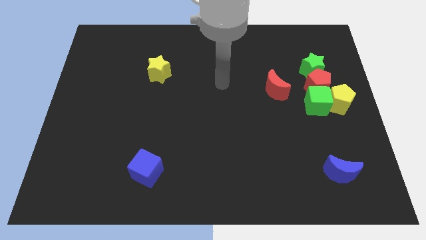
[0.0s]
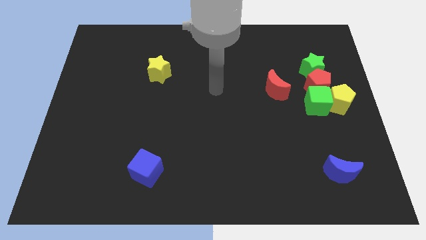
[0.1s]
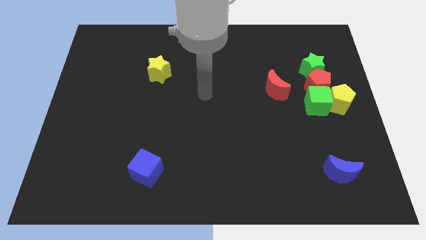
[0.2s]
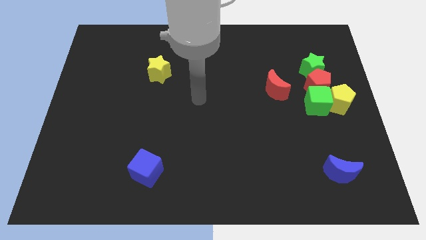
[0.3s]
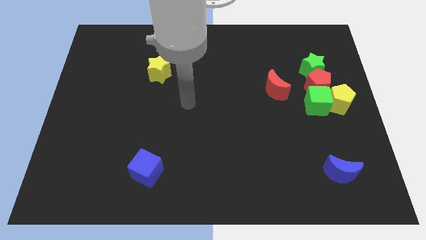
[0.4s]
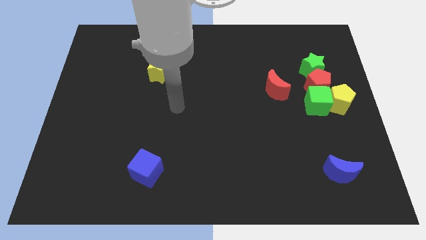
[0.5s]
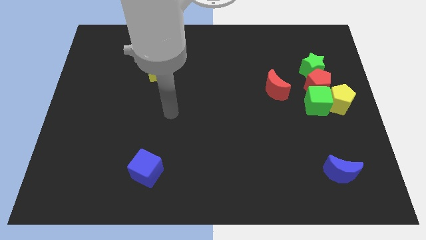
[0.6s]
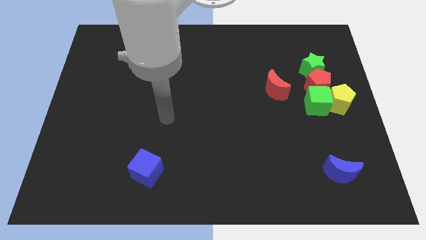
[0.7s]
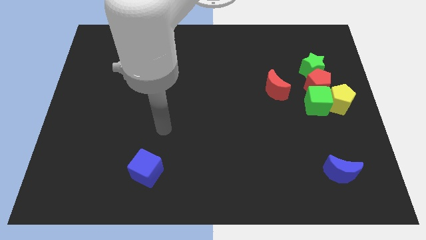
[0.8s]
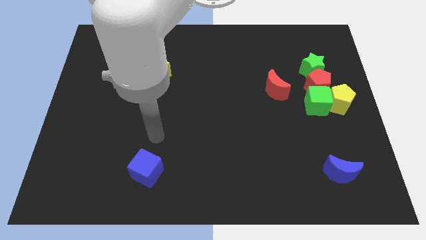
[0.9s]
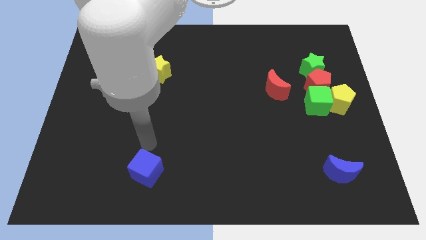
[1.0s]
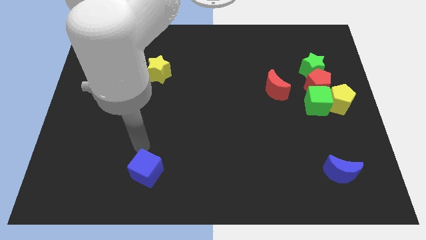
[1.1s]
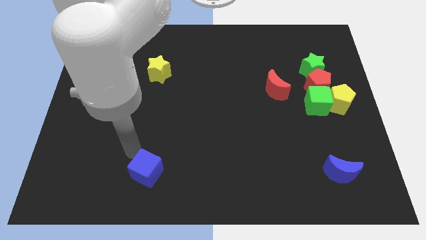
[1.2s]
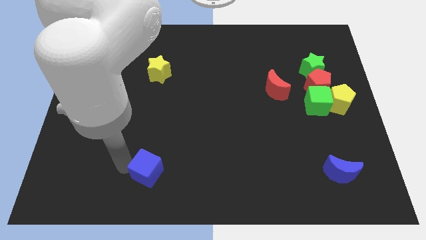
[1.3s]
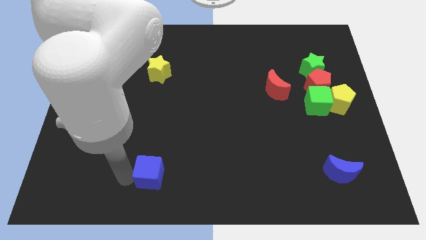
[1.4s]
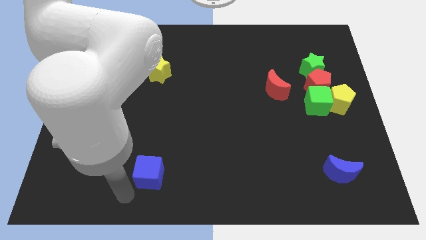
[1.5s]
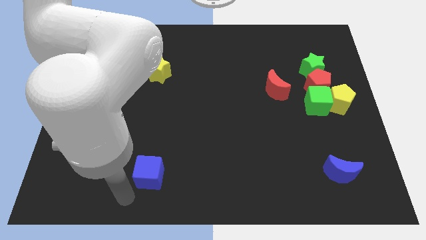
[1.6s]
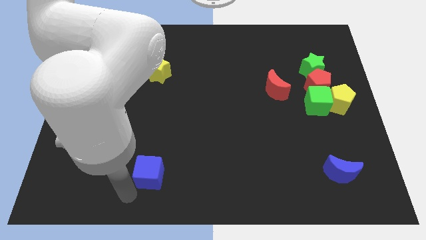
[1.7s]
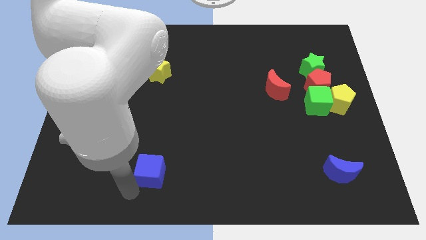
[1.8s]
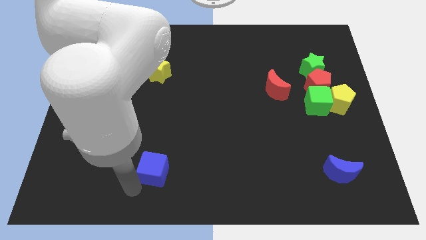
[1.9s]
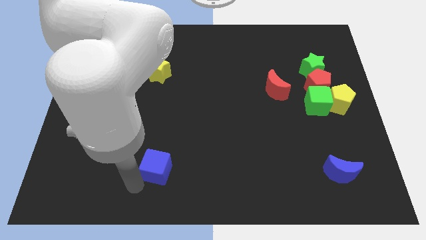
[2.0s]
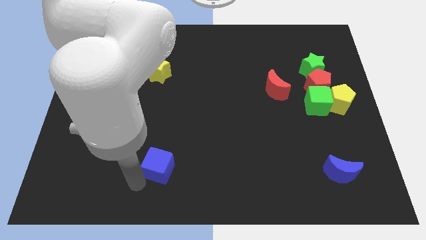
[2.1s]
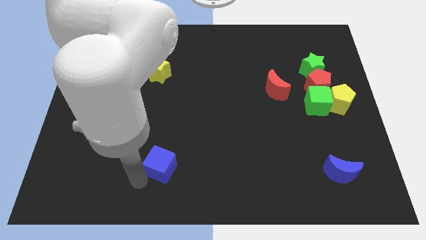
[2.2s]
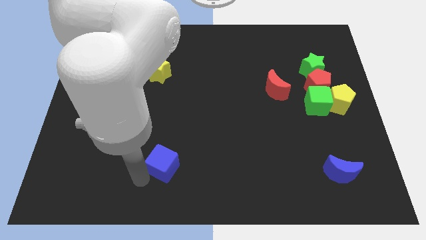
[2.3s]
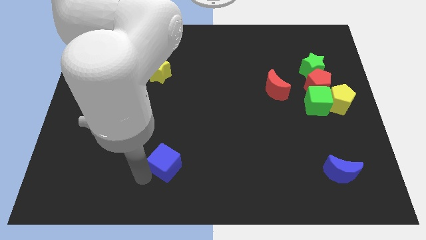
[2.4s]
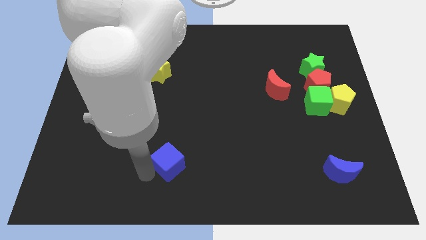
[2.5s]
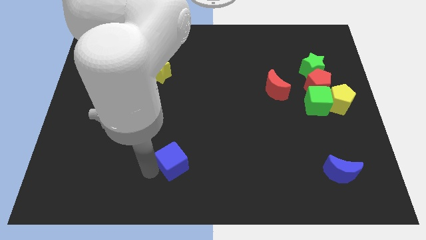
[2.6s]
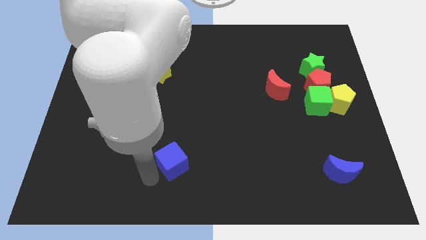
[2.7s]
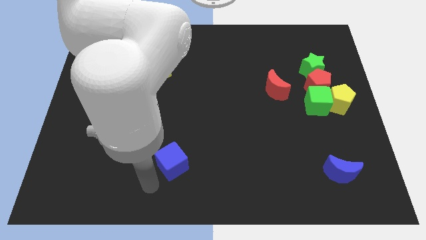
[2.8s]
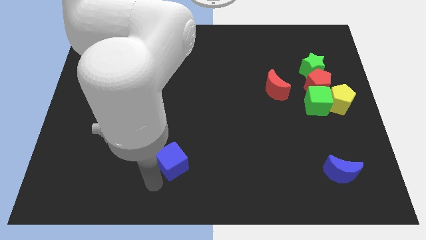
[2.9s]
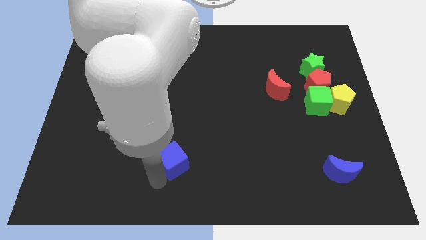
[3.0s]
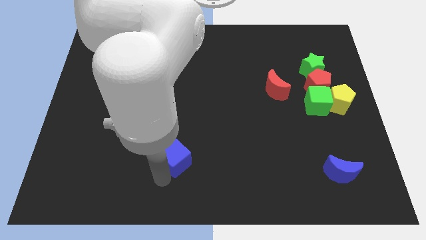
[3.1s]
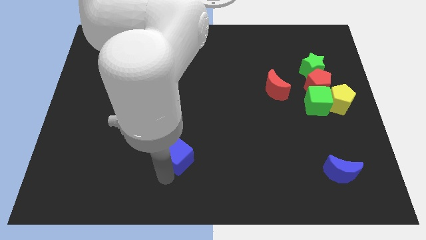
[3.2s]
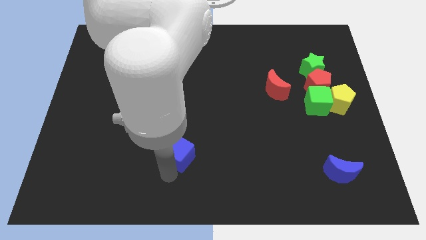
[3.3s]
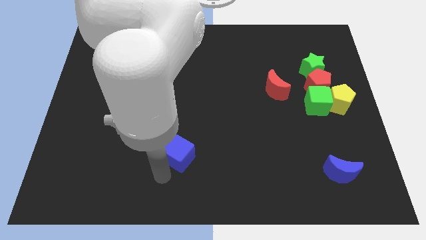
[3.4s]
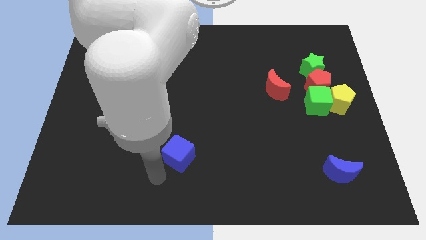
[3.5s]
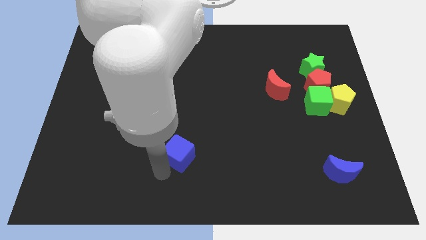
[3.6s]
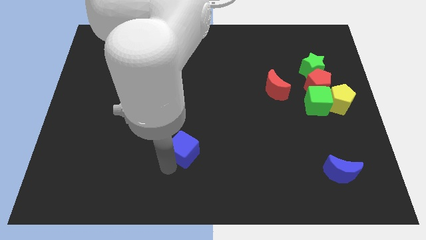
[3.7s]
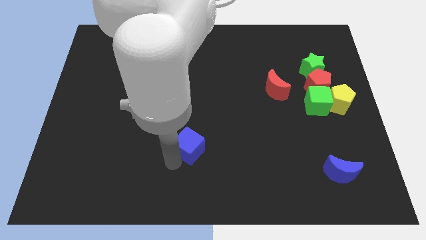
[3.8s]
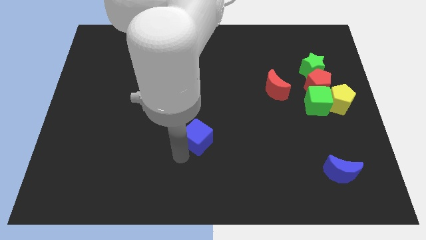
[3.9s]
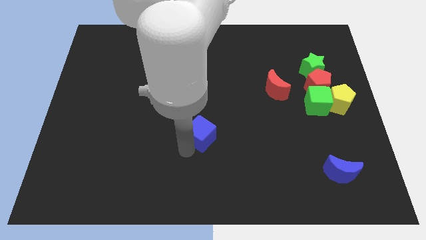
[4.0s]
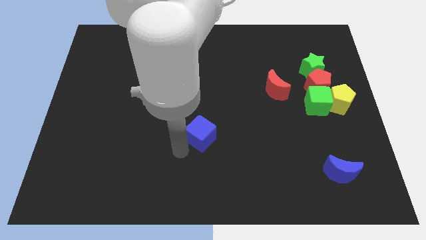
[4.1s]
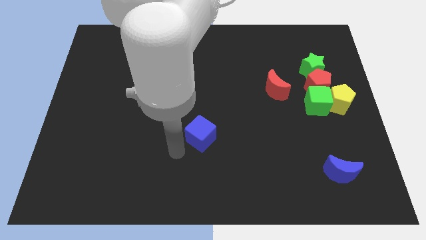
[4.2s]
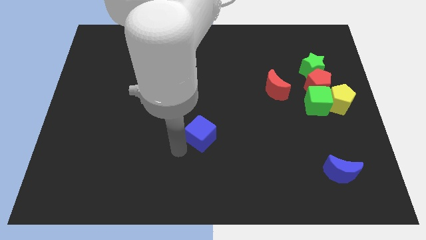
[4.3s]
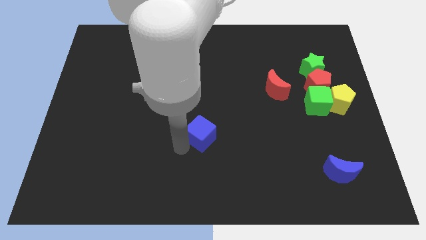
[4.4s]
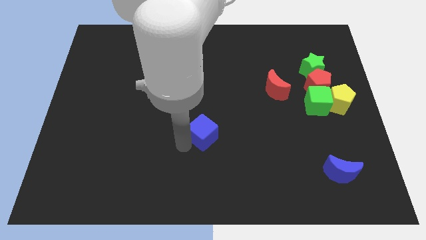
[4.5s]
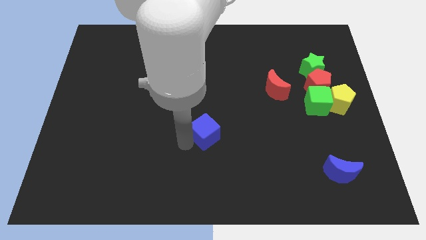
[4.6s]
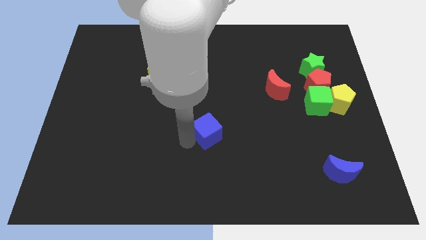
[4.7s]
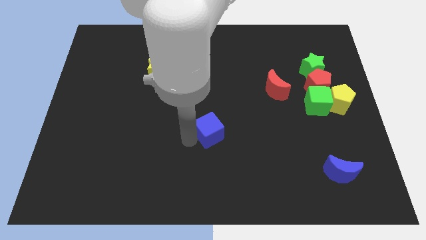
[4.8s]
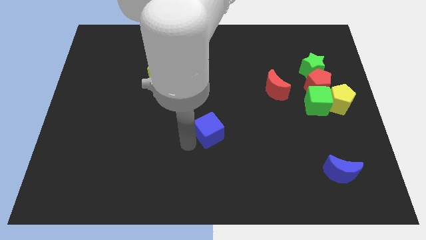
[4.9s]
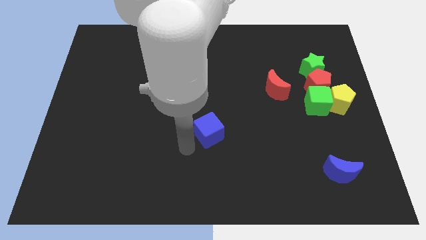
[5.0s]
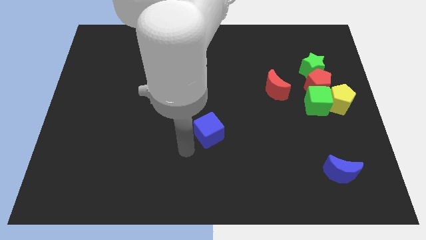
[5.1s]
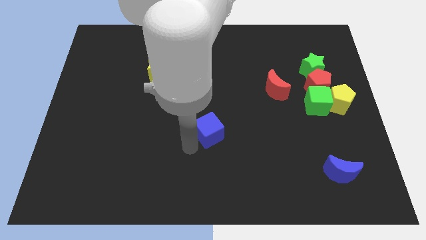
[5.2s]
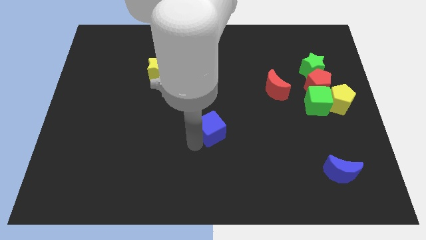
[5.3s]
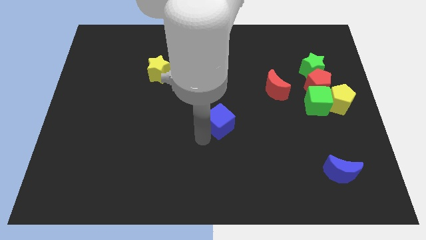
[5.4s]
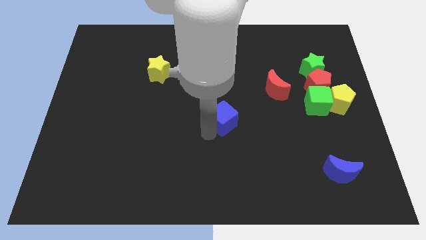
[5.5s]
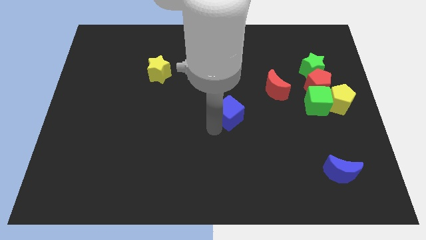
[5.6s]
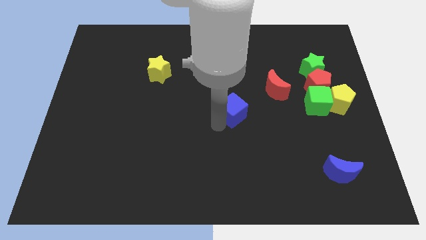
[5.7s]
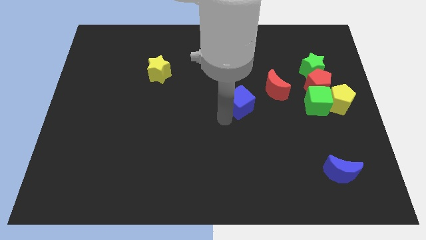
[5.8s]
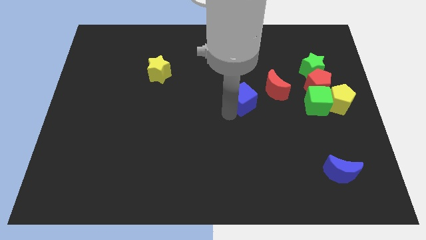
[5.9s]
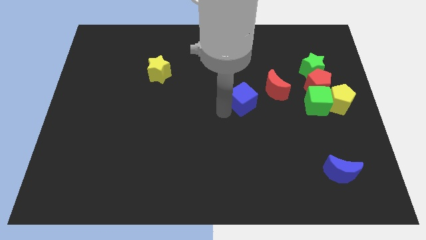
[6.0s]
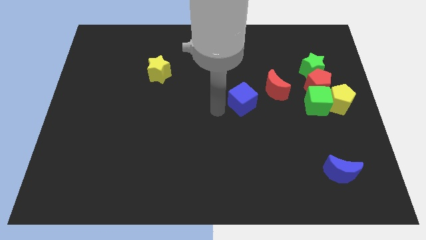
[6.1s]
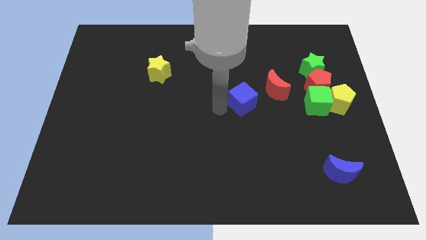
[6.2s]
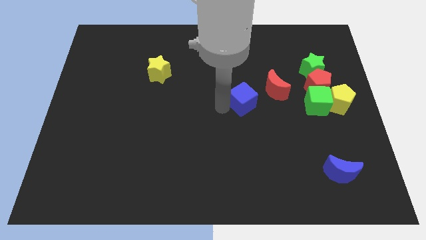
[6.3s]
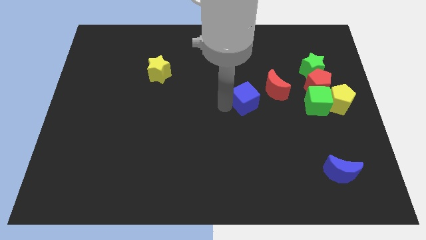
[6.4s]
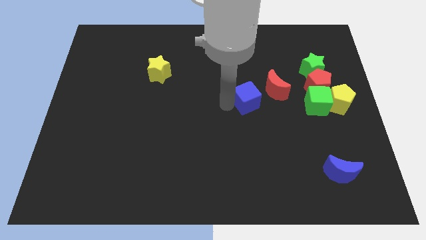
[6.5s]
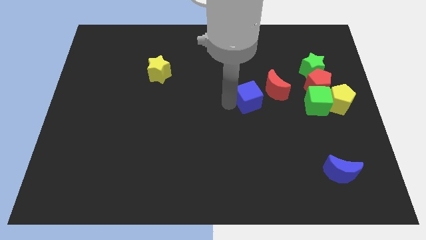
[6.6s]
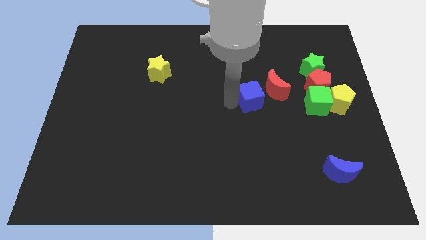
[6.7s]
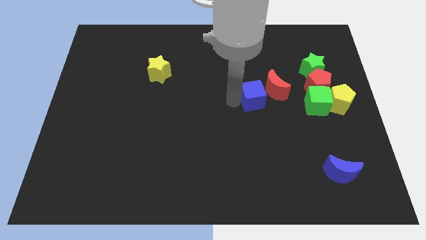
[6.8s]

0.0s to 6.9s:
put the blue cube towards the red moon
